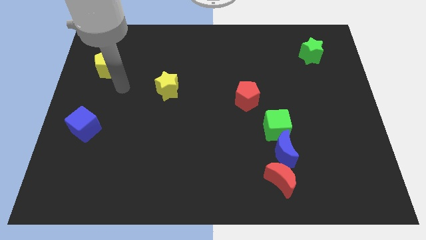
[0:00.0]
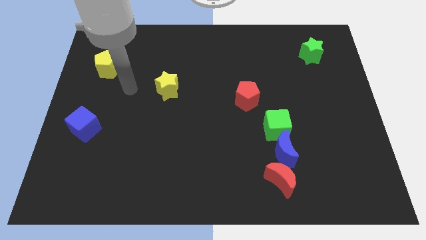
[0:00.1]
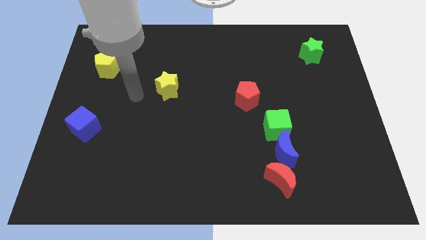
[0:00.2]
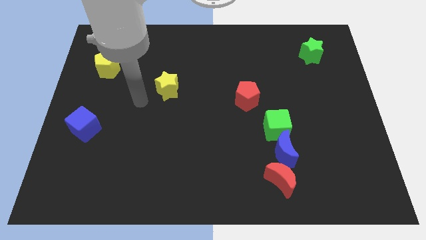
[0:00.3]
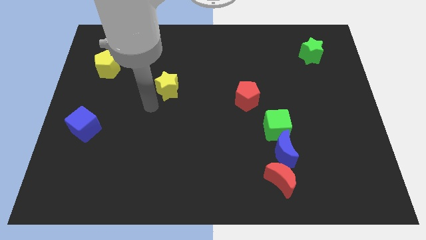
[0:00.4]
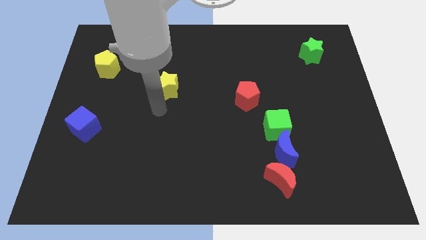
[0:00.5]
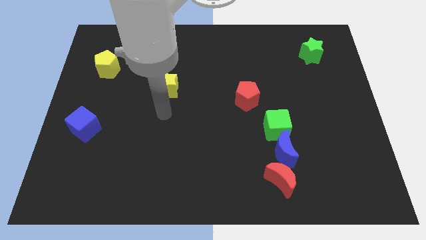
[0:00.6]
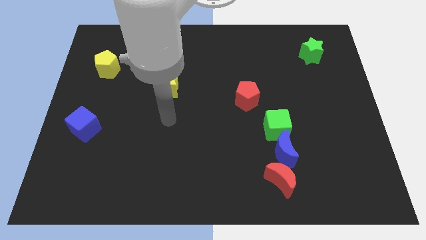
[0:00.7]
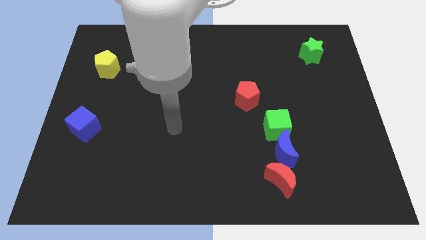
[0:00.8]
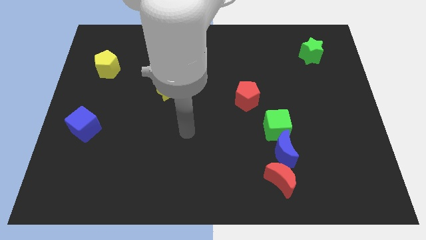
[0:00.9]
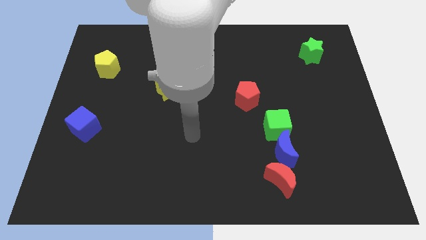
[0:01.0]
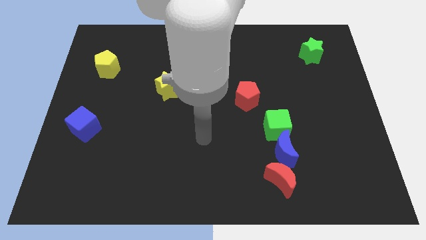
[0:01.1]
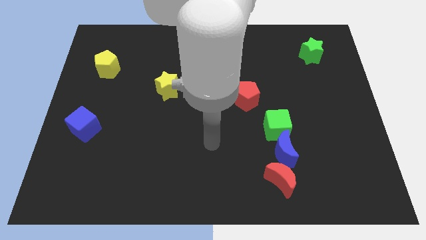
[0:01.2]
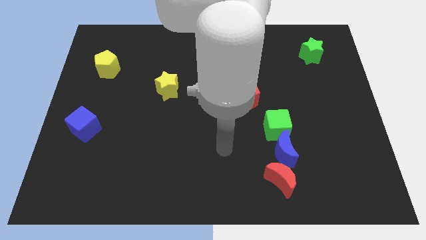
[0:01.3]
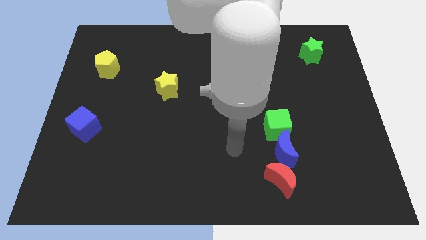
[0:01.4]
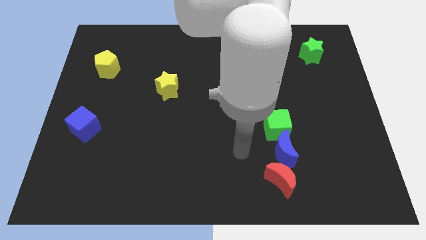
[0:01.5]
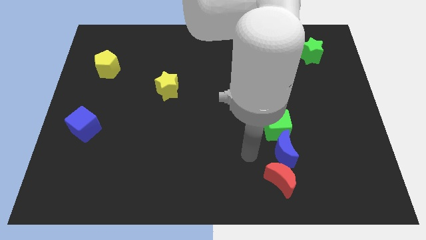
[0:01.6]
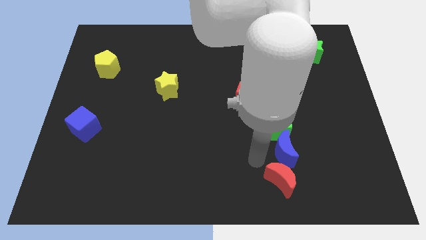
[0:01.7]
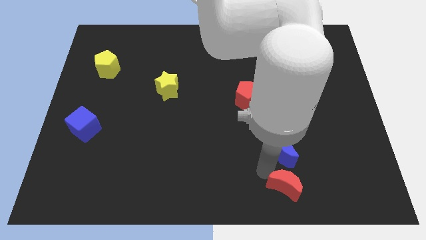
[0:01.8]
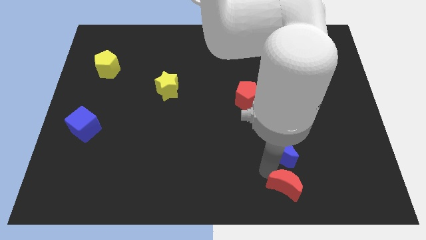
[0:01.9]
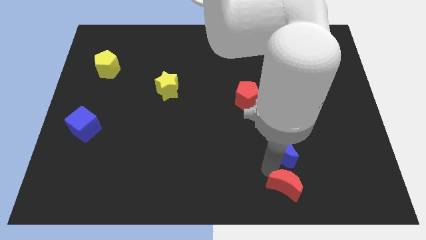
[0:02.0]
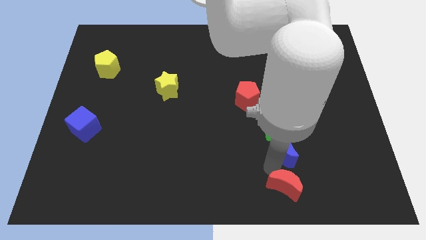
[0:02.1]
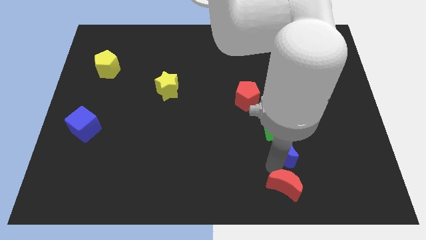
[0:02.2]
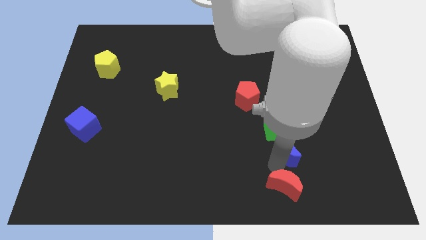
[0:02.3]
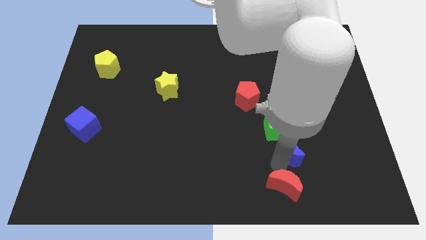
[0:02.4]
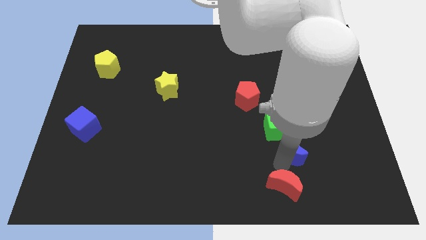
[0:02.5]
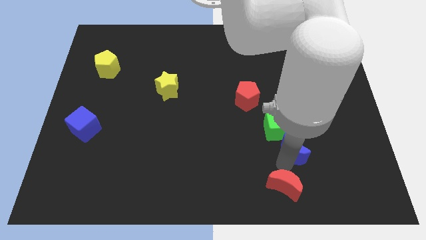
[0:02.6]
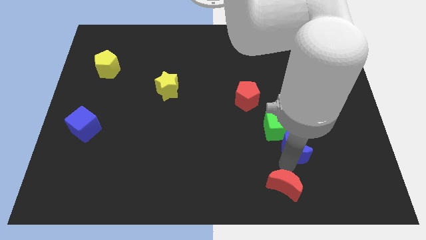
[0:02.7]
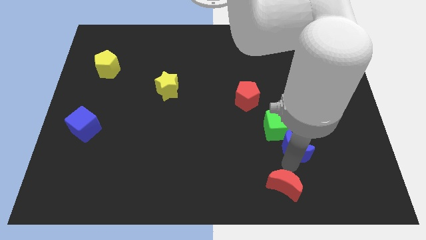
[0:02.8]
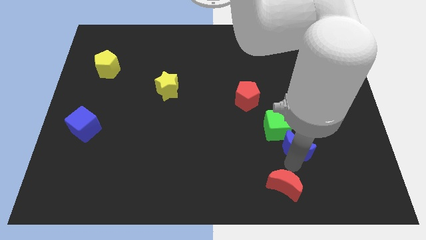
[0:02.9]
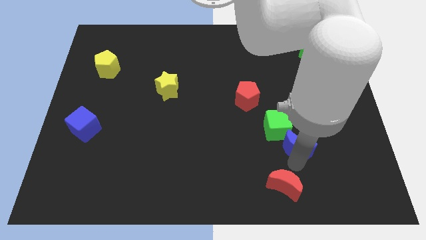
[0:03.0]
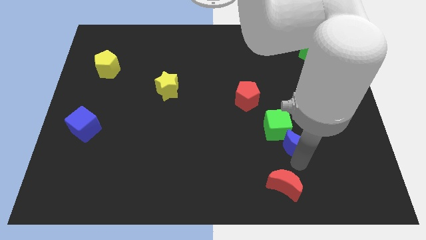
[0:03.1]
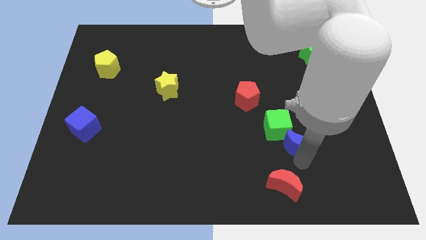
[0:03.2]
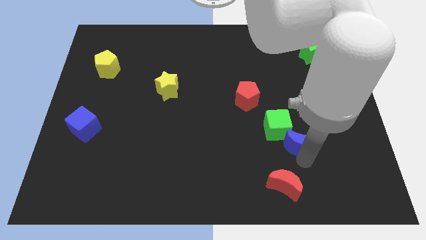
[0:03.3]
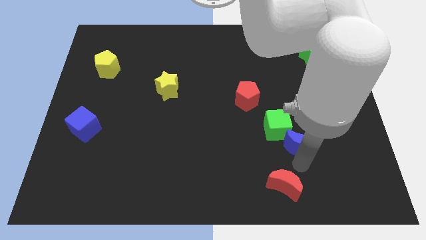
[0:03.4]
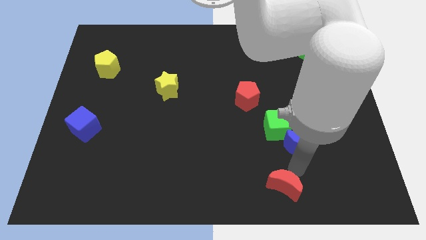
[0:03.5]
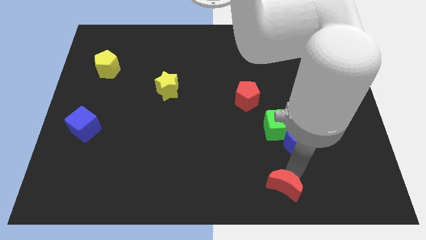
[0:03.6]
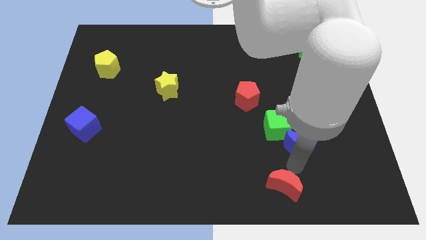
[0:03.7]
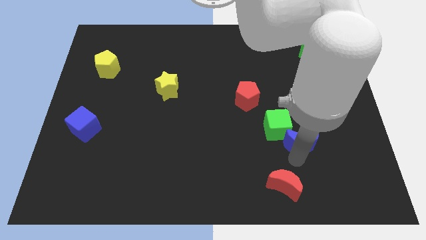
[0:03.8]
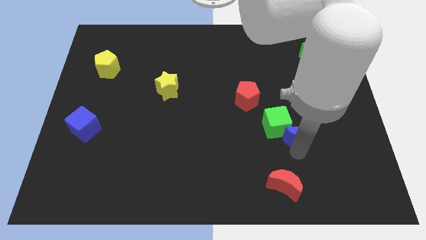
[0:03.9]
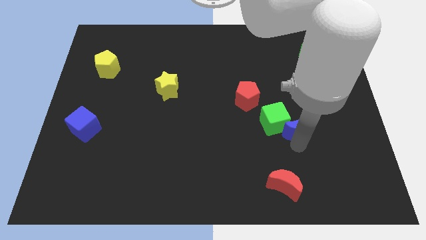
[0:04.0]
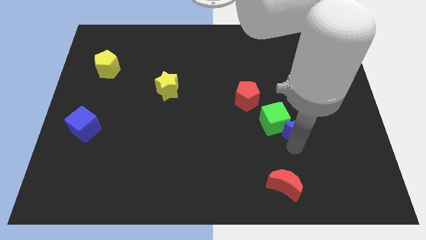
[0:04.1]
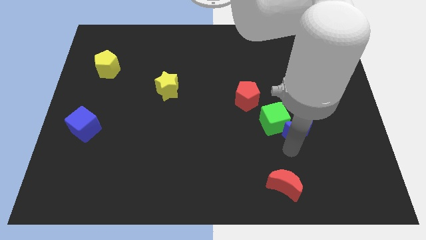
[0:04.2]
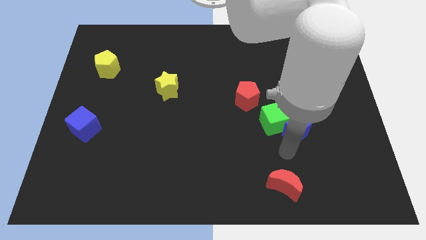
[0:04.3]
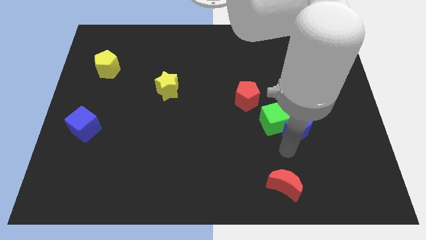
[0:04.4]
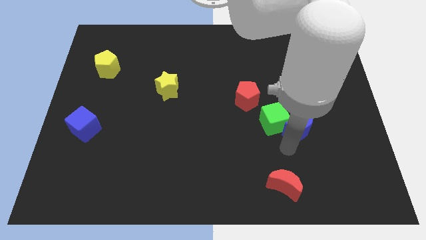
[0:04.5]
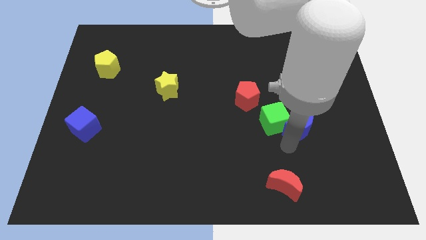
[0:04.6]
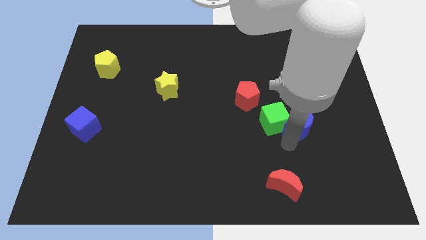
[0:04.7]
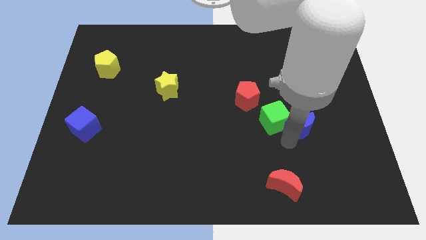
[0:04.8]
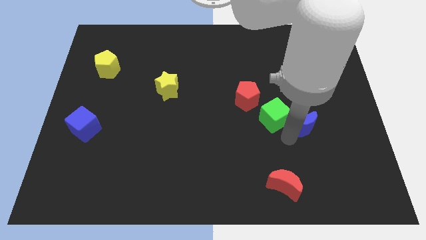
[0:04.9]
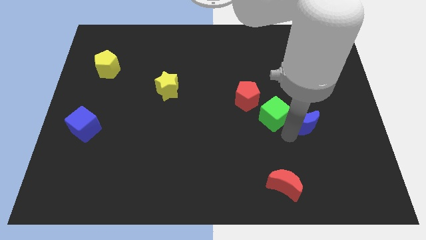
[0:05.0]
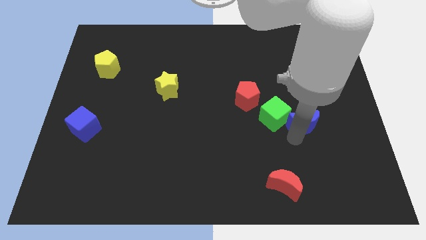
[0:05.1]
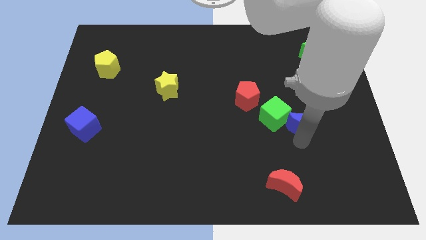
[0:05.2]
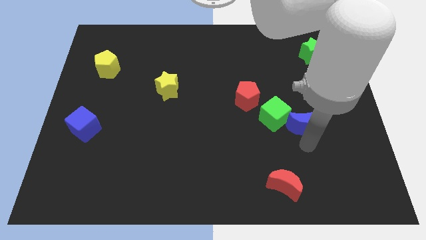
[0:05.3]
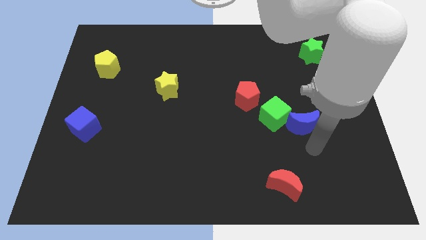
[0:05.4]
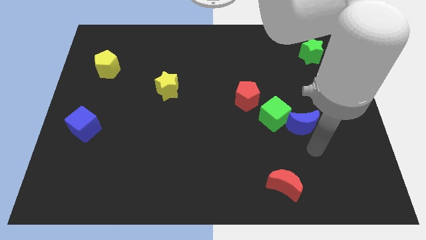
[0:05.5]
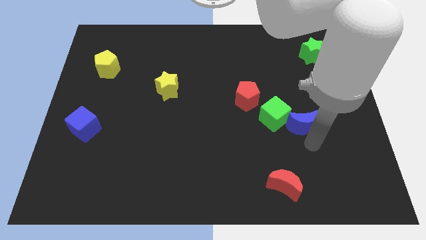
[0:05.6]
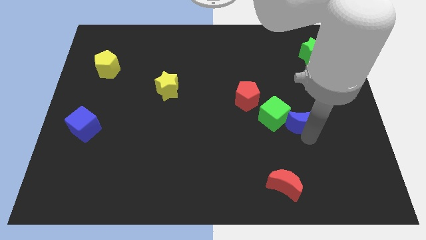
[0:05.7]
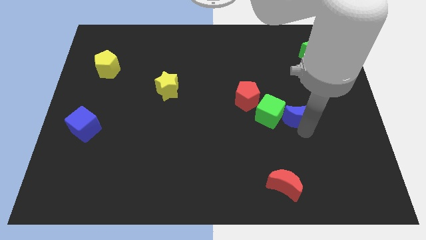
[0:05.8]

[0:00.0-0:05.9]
push the blue moon a bit upwards

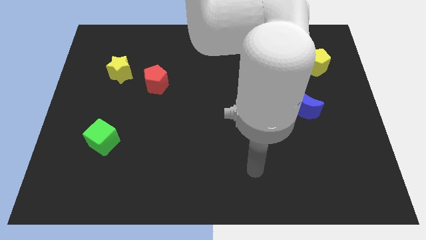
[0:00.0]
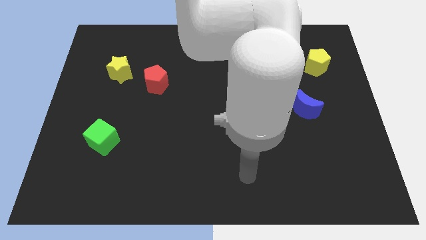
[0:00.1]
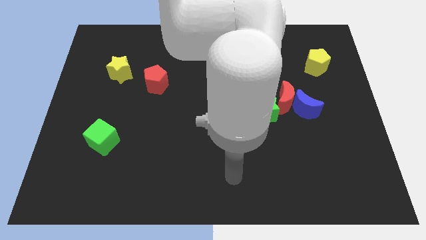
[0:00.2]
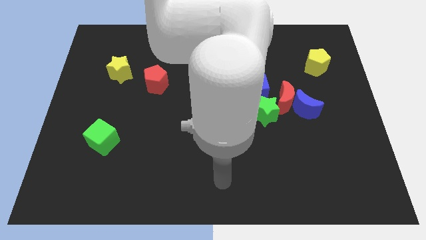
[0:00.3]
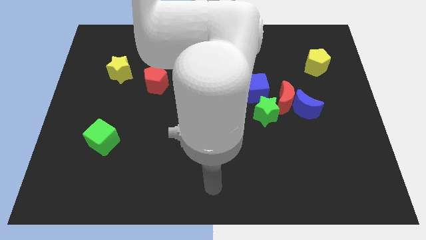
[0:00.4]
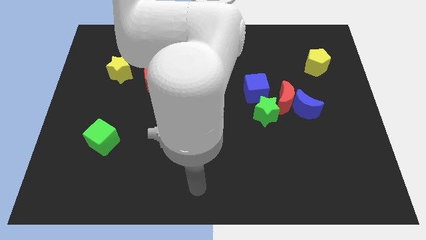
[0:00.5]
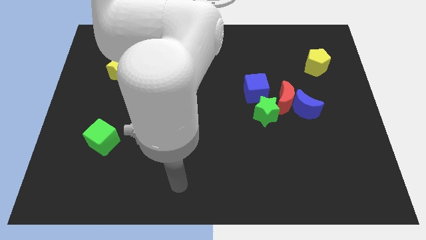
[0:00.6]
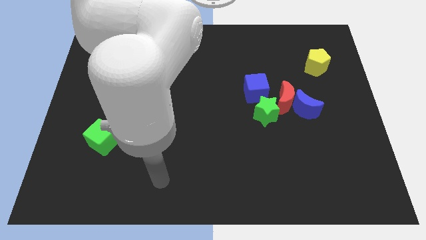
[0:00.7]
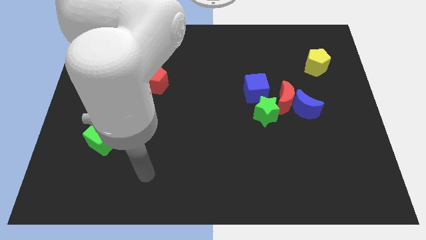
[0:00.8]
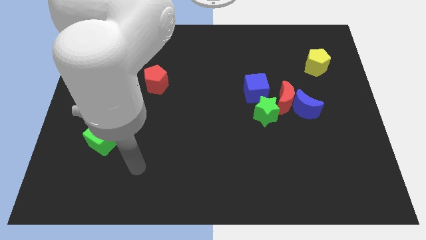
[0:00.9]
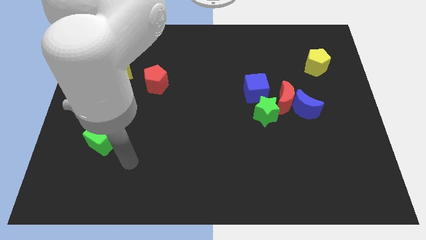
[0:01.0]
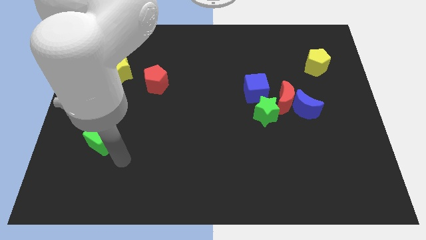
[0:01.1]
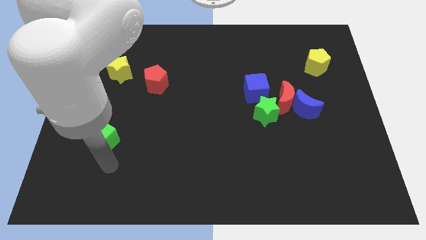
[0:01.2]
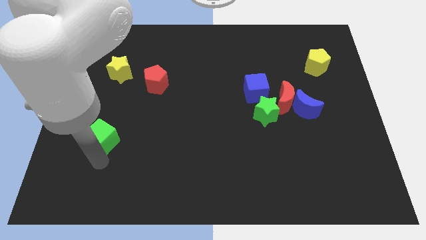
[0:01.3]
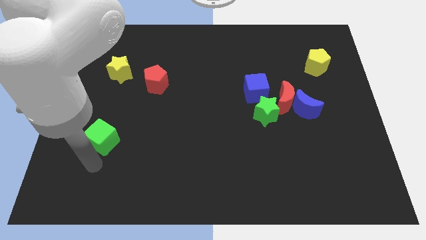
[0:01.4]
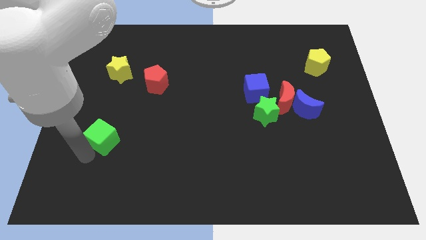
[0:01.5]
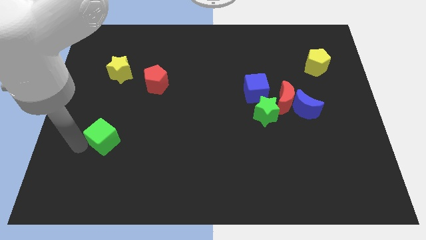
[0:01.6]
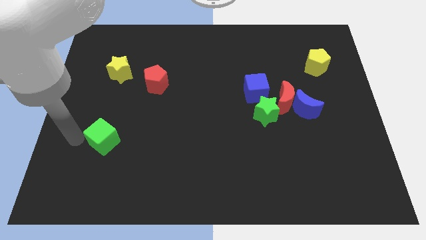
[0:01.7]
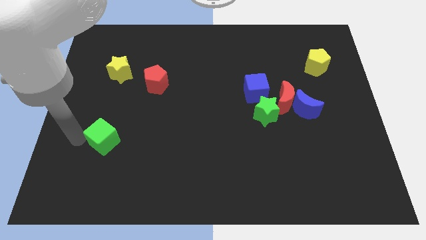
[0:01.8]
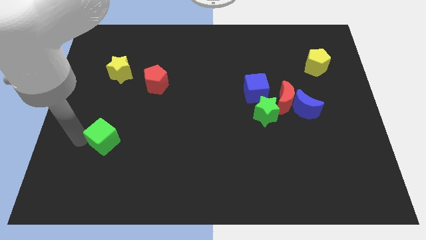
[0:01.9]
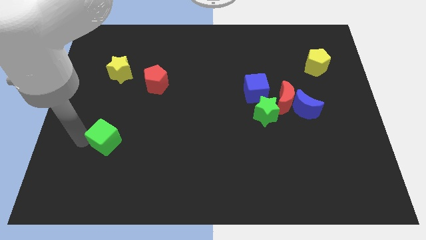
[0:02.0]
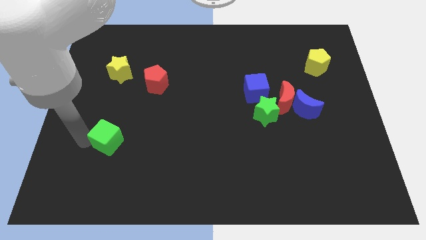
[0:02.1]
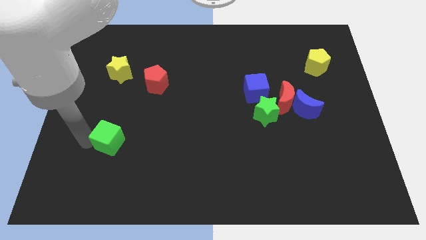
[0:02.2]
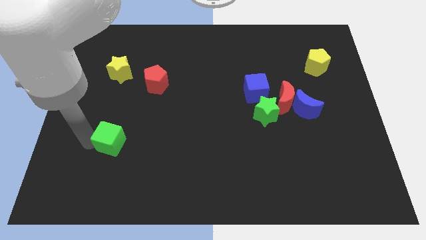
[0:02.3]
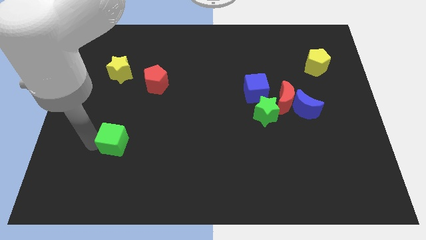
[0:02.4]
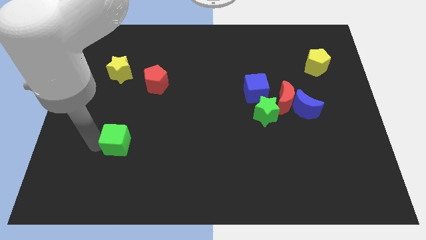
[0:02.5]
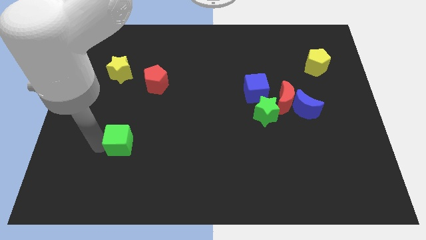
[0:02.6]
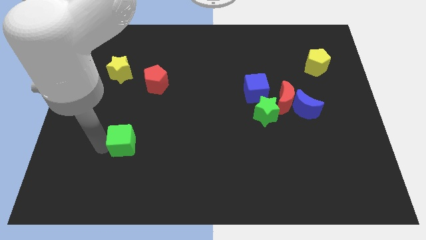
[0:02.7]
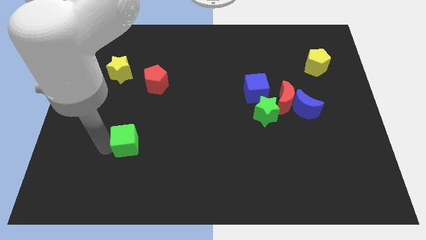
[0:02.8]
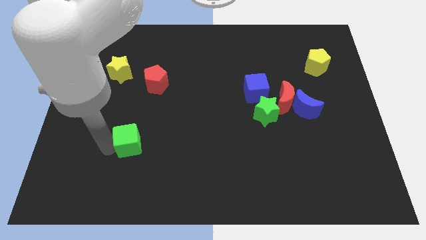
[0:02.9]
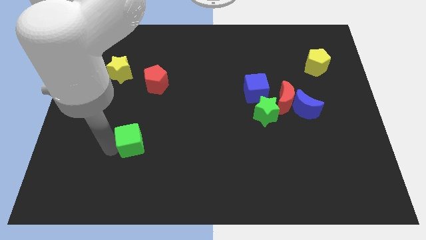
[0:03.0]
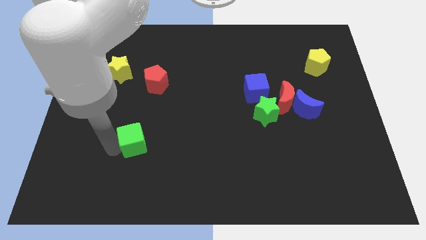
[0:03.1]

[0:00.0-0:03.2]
slightly slide the green cube right
